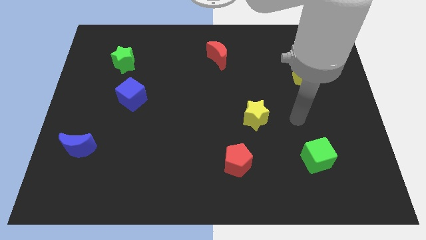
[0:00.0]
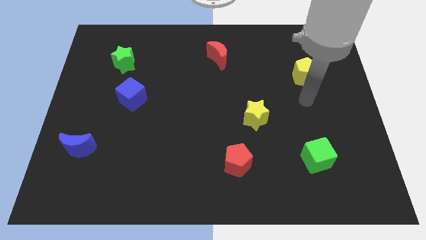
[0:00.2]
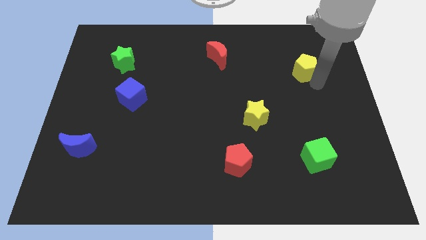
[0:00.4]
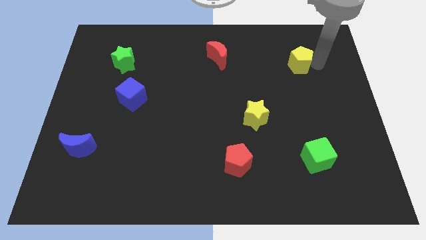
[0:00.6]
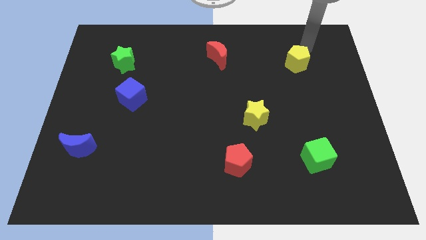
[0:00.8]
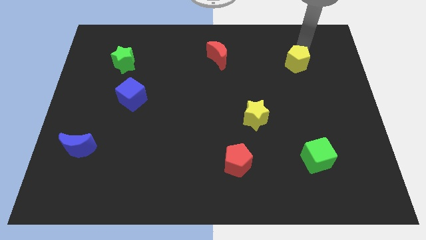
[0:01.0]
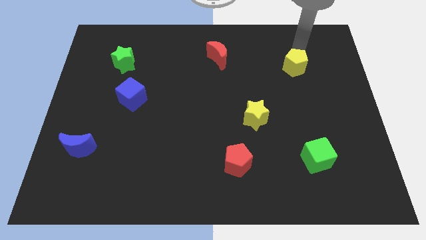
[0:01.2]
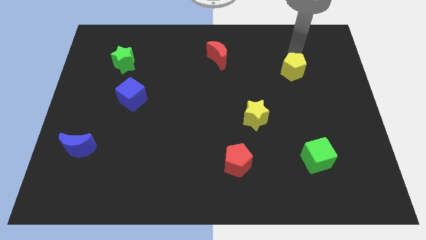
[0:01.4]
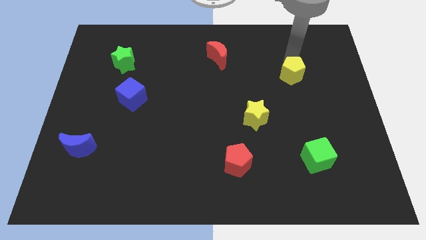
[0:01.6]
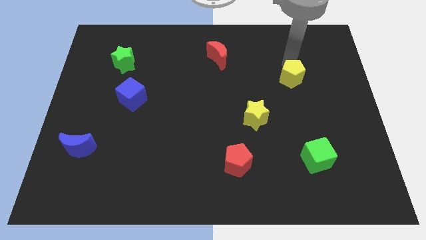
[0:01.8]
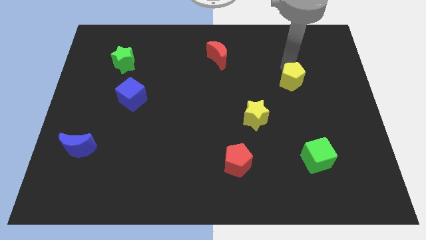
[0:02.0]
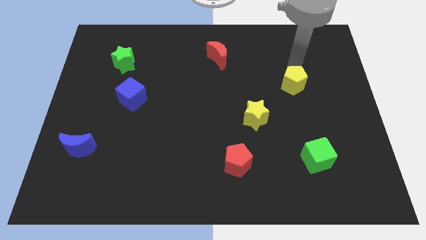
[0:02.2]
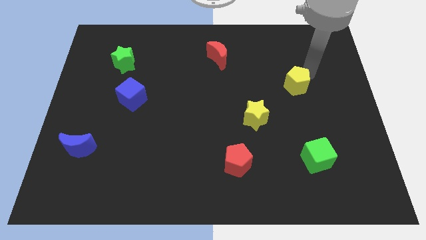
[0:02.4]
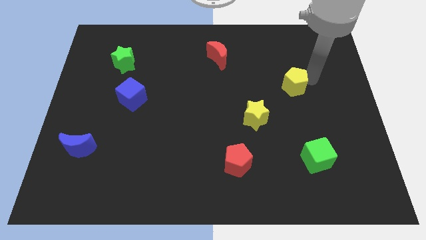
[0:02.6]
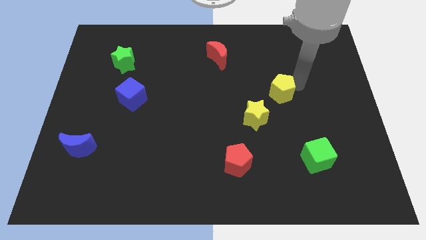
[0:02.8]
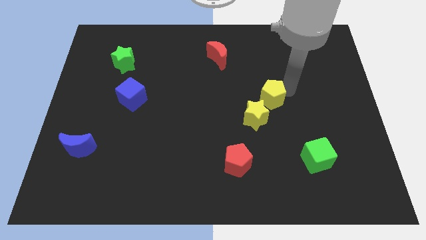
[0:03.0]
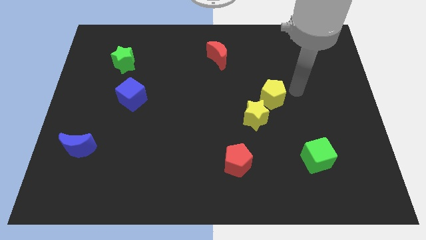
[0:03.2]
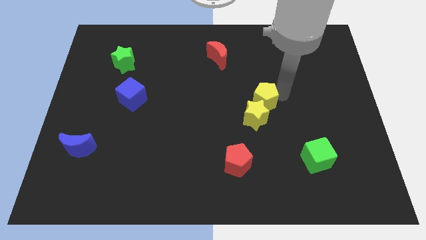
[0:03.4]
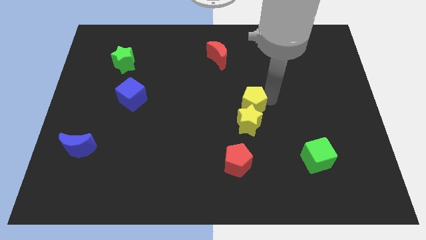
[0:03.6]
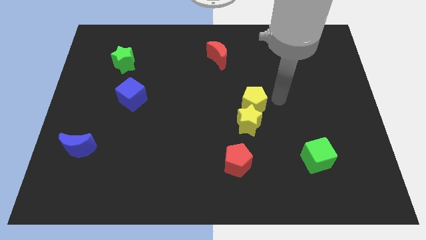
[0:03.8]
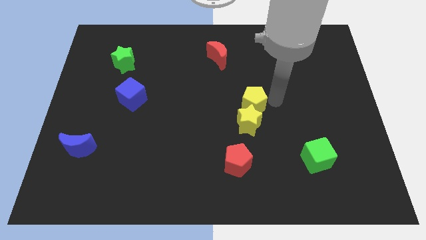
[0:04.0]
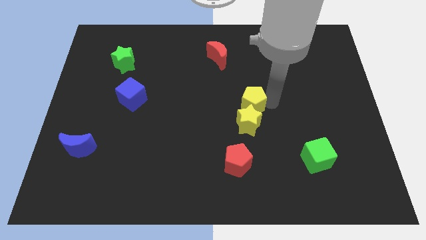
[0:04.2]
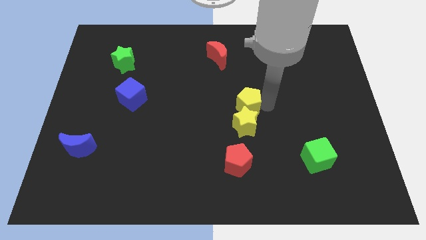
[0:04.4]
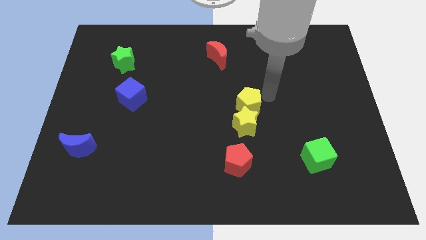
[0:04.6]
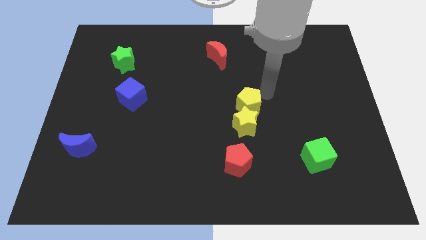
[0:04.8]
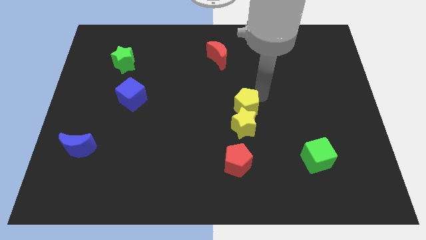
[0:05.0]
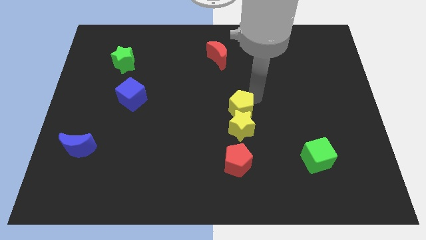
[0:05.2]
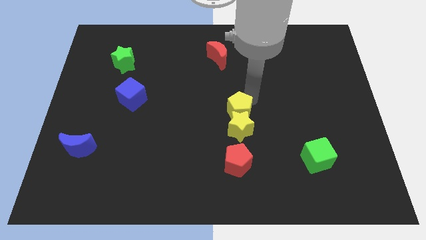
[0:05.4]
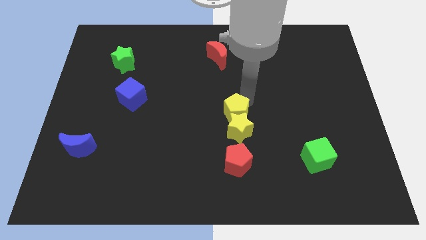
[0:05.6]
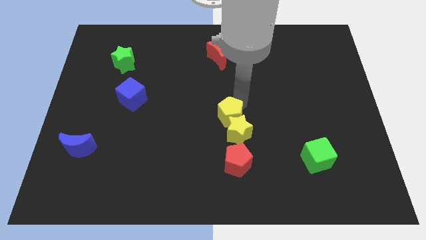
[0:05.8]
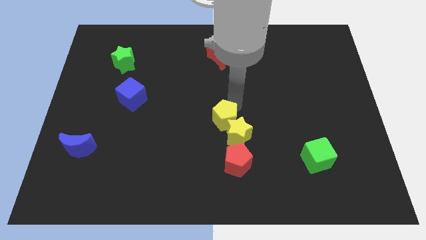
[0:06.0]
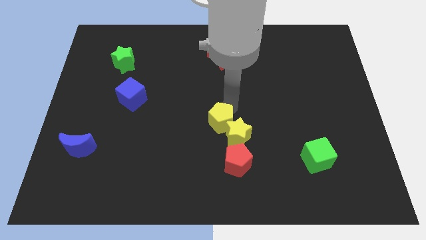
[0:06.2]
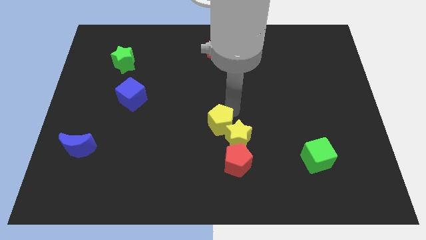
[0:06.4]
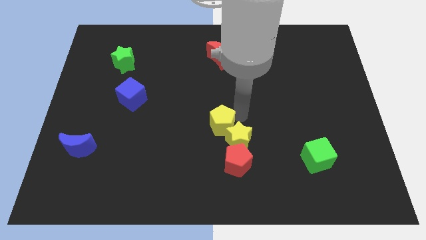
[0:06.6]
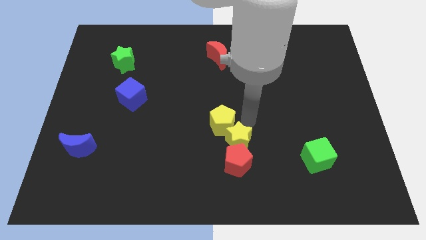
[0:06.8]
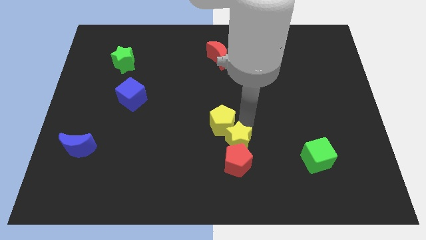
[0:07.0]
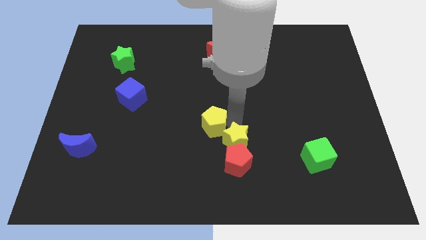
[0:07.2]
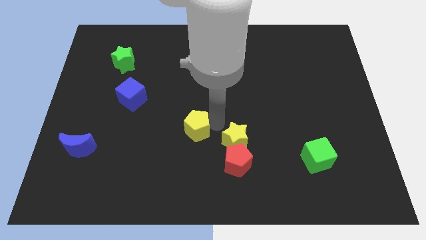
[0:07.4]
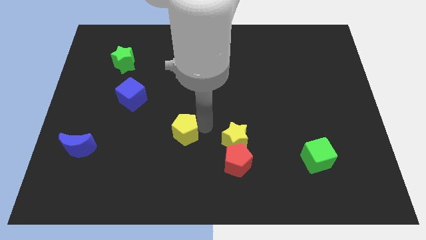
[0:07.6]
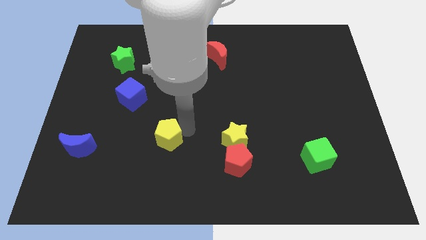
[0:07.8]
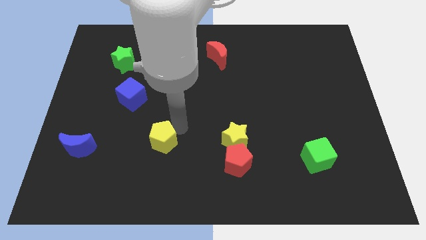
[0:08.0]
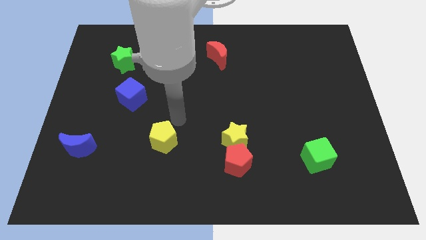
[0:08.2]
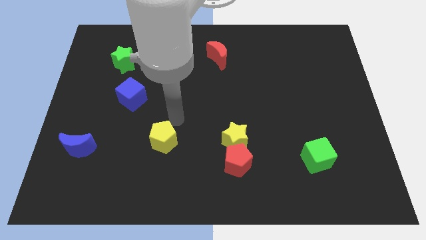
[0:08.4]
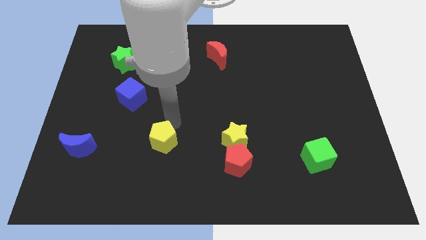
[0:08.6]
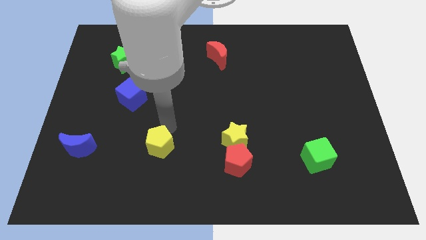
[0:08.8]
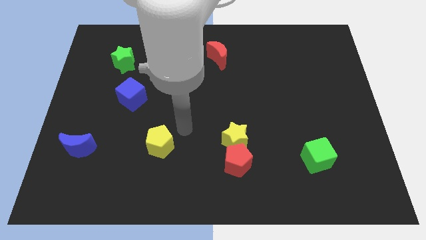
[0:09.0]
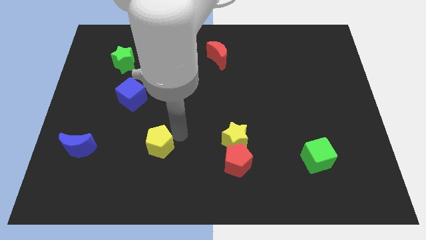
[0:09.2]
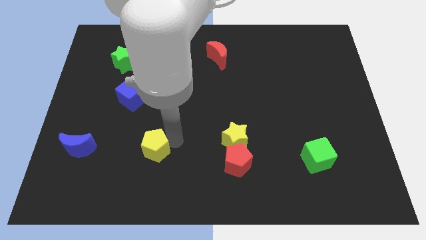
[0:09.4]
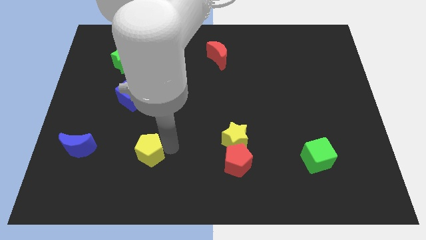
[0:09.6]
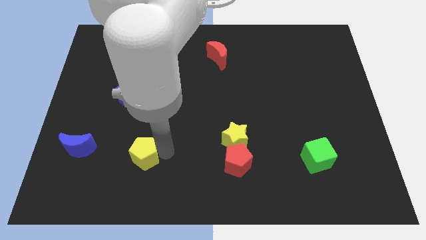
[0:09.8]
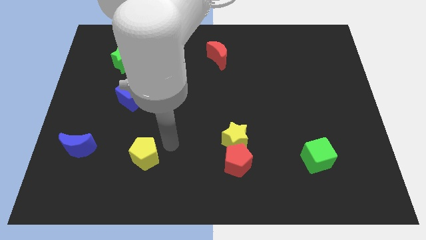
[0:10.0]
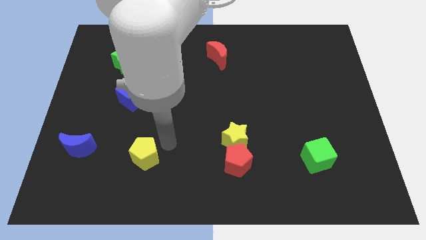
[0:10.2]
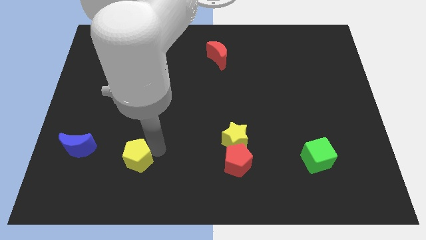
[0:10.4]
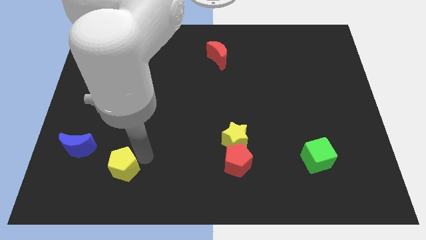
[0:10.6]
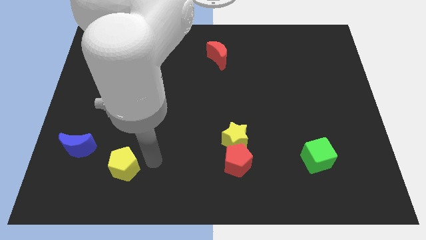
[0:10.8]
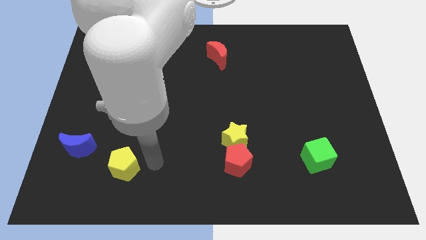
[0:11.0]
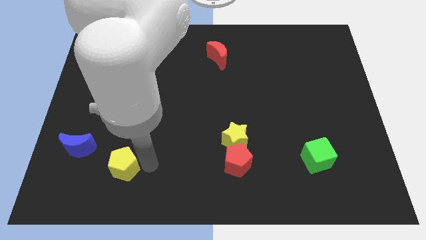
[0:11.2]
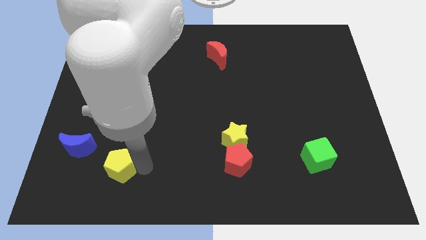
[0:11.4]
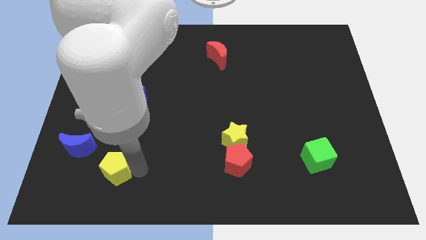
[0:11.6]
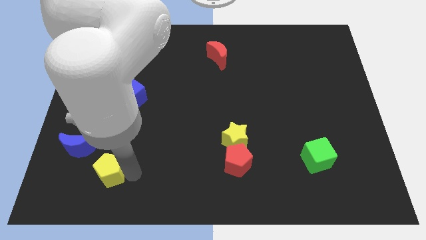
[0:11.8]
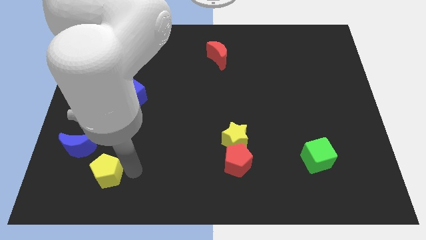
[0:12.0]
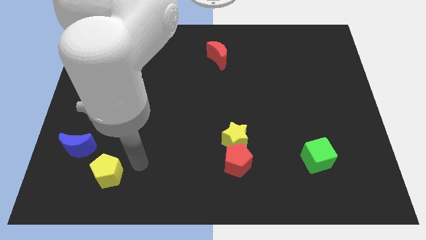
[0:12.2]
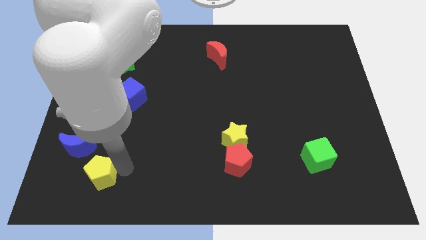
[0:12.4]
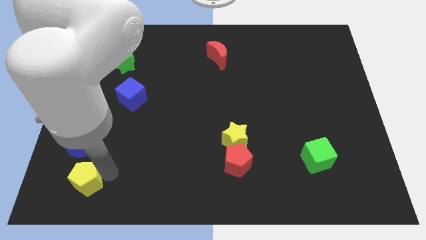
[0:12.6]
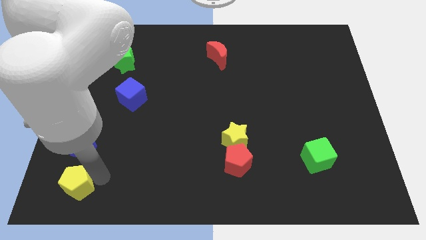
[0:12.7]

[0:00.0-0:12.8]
move the yellow pentagon to the bottom left

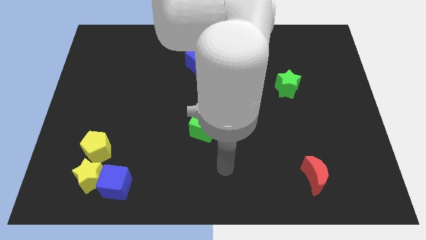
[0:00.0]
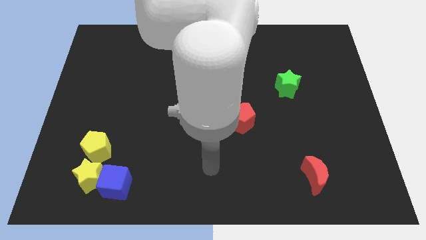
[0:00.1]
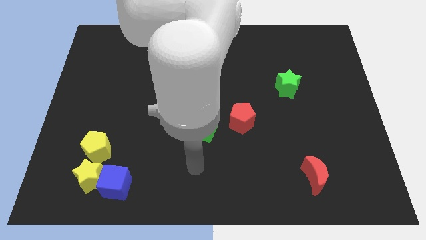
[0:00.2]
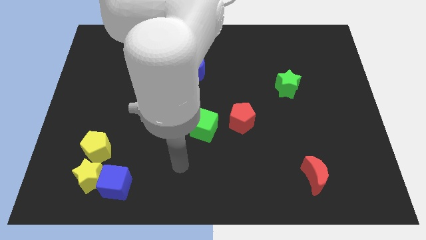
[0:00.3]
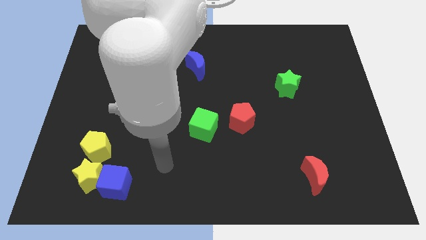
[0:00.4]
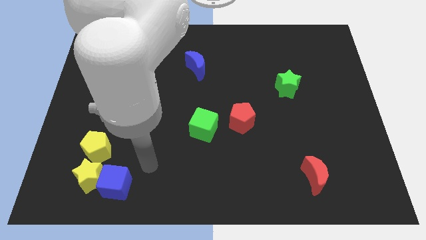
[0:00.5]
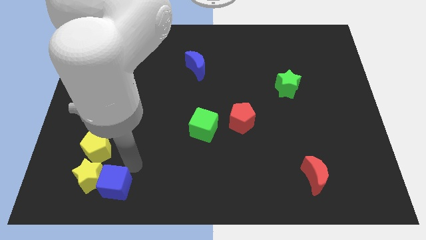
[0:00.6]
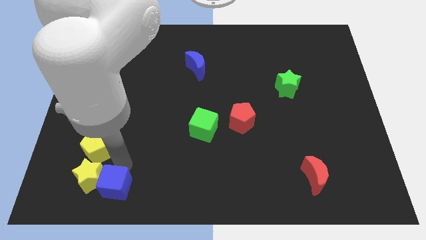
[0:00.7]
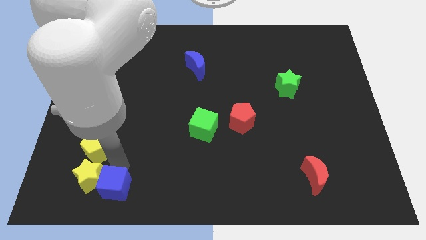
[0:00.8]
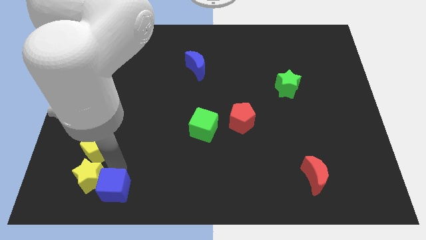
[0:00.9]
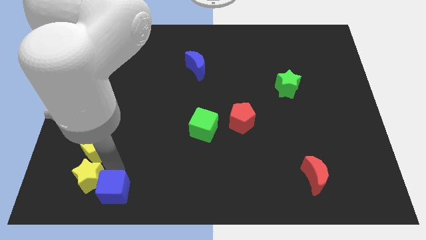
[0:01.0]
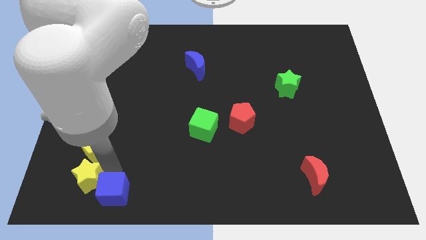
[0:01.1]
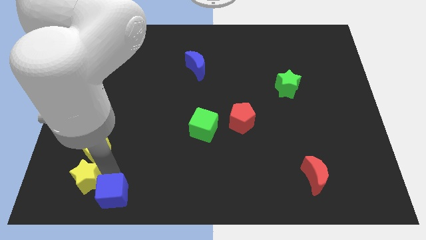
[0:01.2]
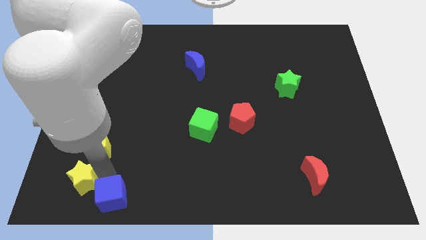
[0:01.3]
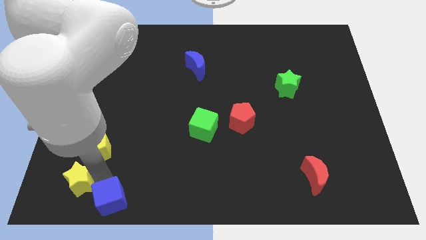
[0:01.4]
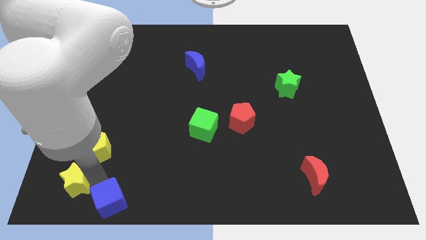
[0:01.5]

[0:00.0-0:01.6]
put the yellow star to the bottom left of the board
